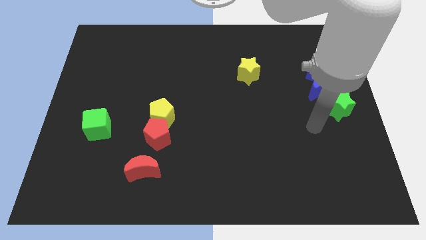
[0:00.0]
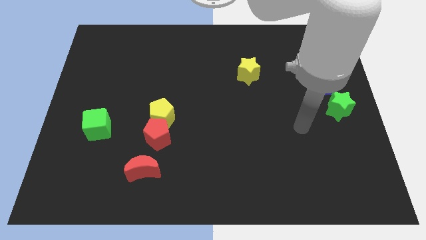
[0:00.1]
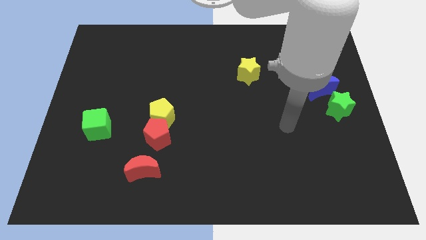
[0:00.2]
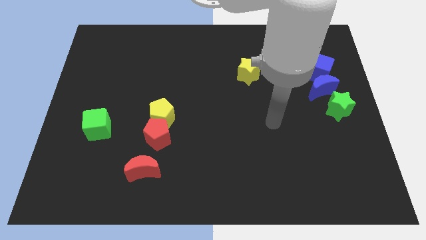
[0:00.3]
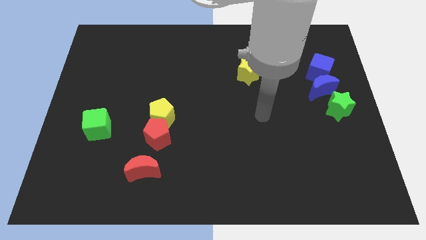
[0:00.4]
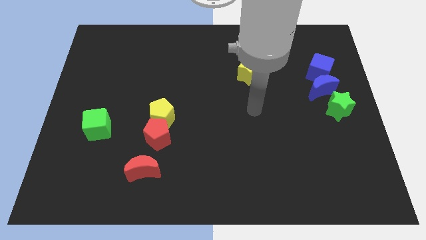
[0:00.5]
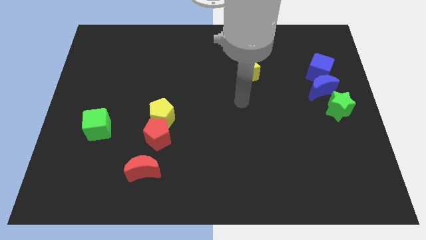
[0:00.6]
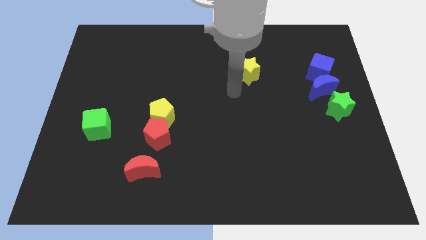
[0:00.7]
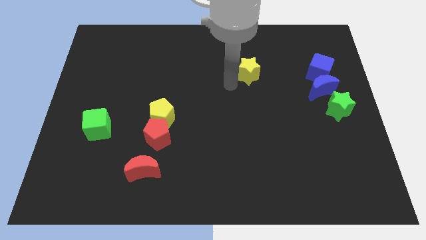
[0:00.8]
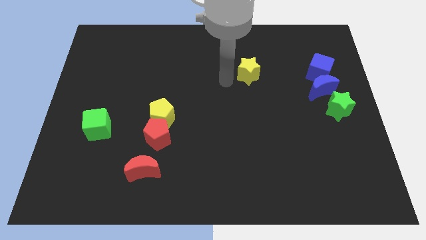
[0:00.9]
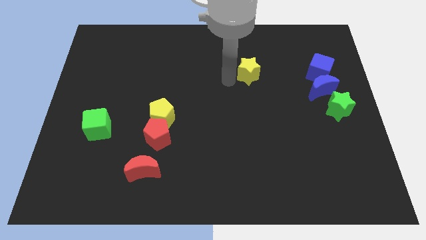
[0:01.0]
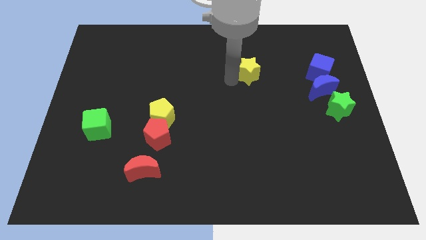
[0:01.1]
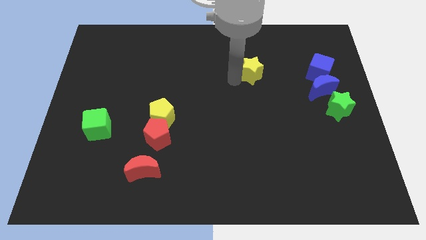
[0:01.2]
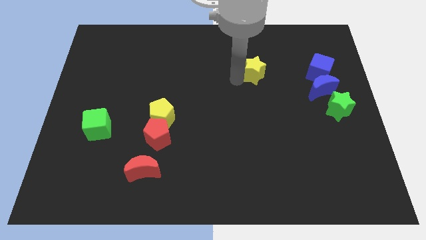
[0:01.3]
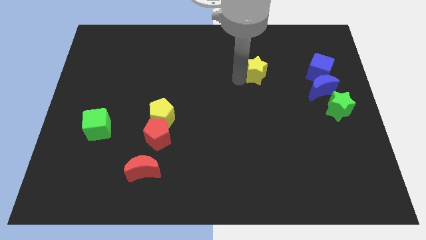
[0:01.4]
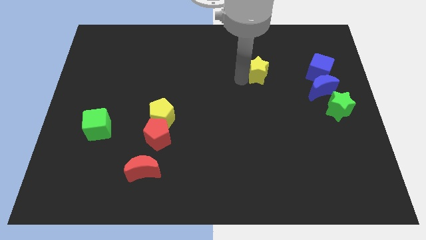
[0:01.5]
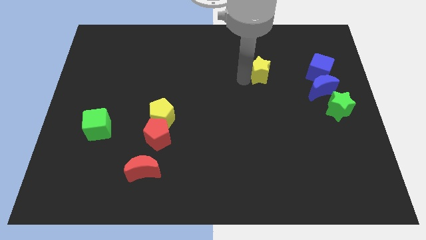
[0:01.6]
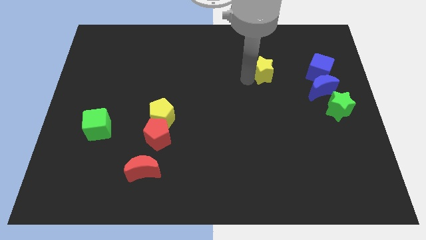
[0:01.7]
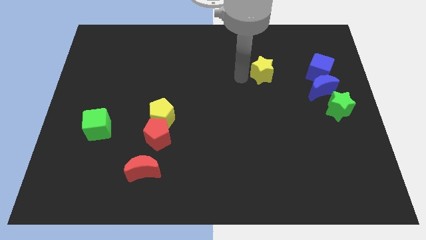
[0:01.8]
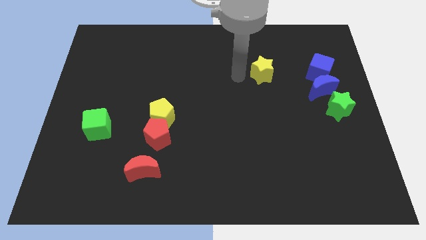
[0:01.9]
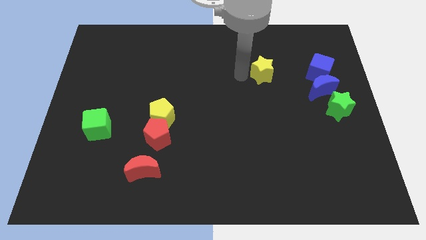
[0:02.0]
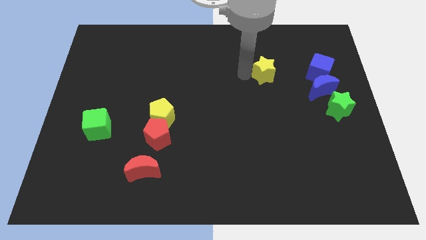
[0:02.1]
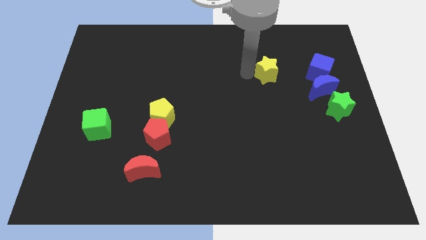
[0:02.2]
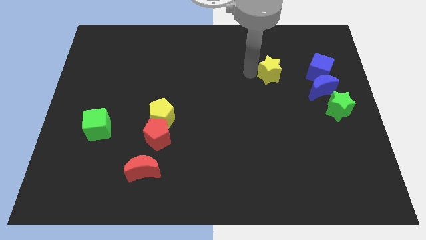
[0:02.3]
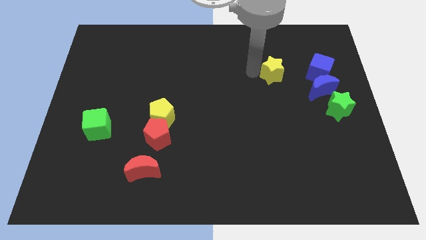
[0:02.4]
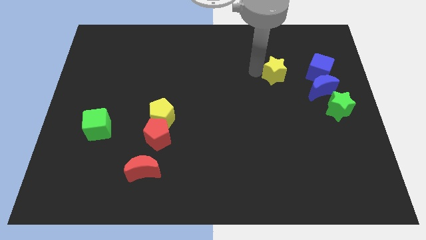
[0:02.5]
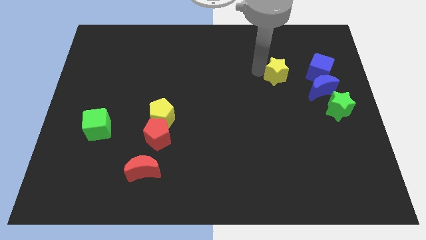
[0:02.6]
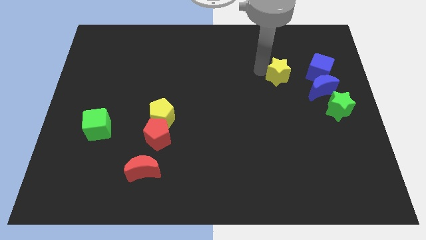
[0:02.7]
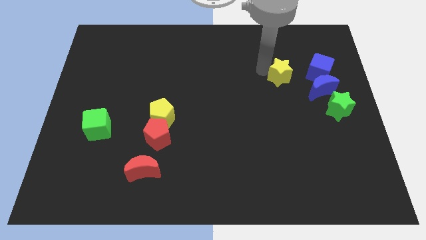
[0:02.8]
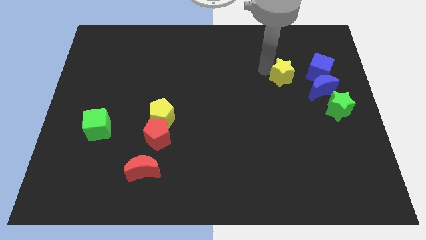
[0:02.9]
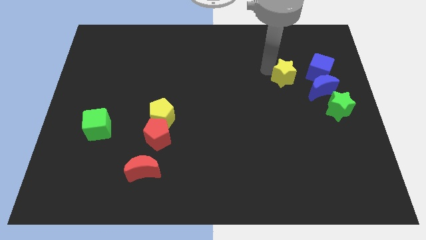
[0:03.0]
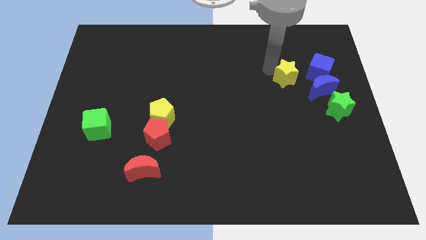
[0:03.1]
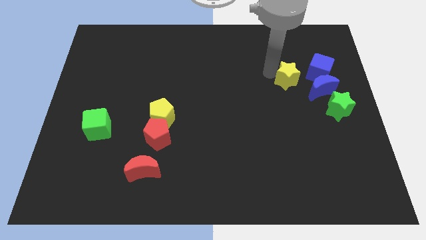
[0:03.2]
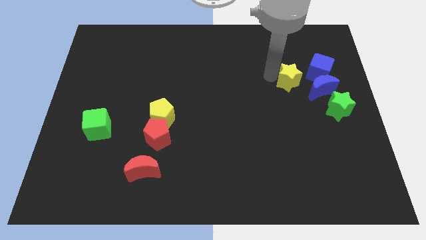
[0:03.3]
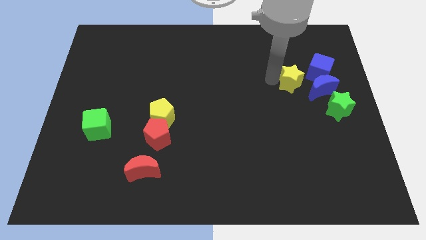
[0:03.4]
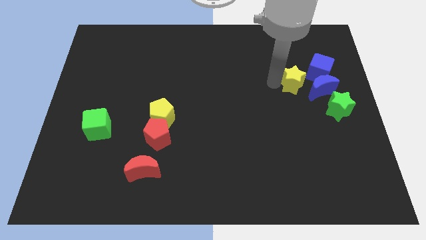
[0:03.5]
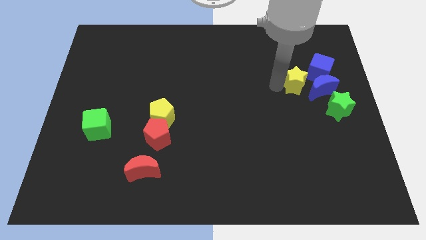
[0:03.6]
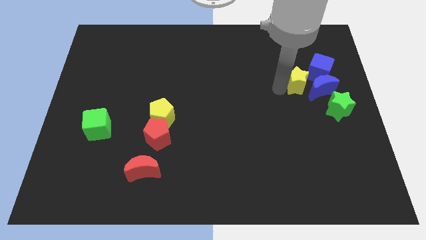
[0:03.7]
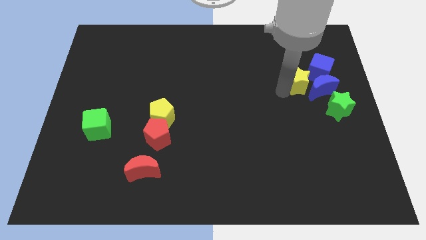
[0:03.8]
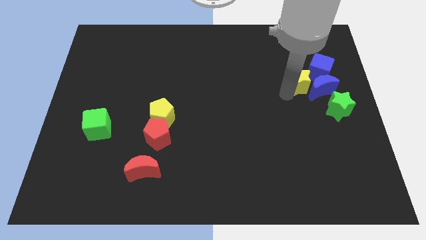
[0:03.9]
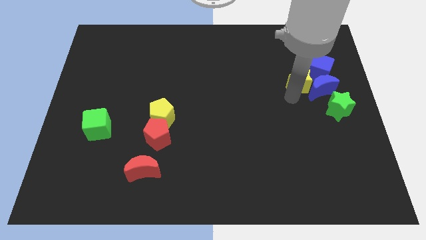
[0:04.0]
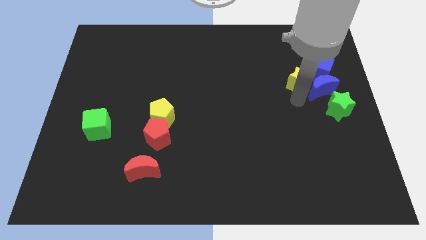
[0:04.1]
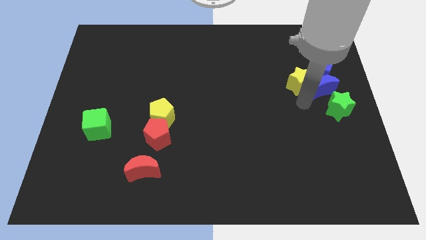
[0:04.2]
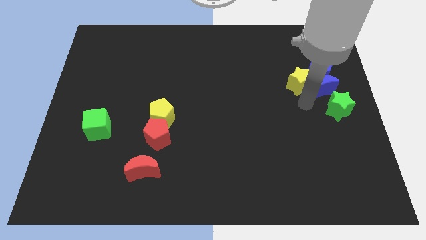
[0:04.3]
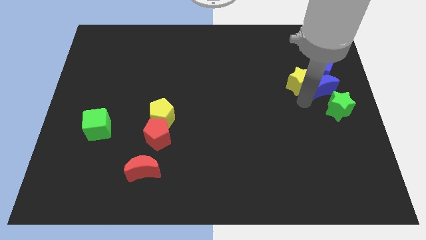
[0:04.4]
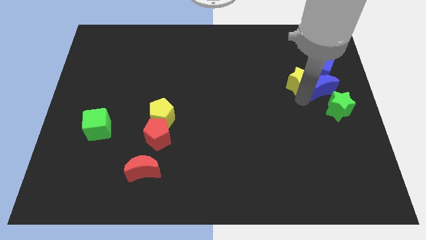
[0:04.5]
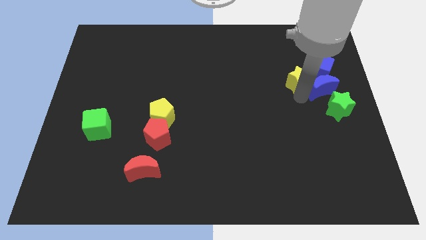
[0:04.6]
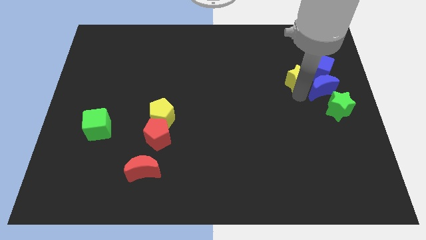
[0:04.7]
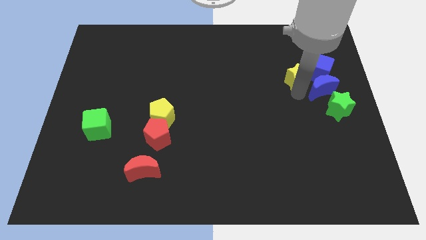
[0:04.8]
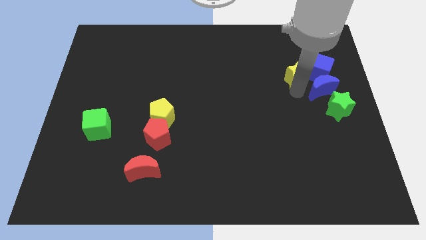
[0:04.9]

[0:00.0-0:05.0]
put the yellow star next to the blue cube

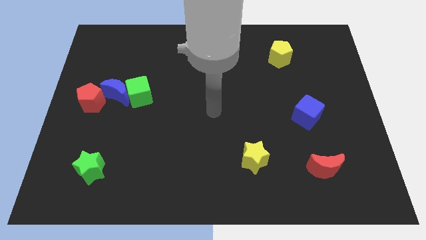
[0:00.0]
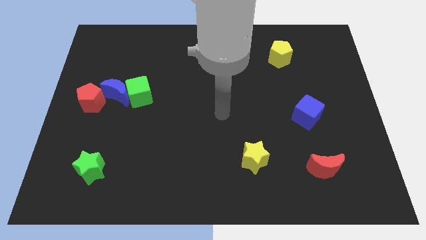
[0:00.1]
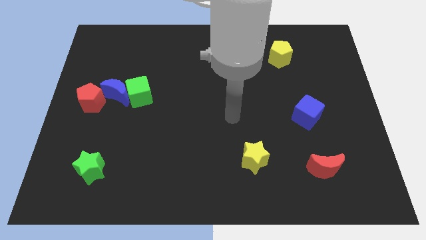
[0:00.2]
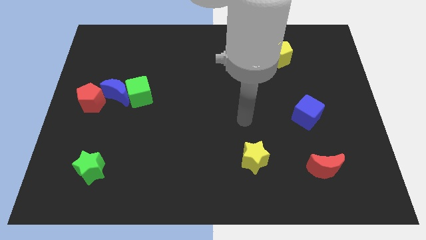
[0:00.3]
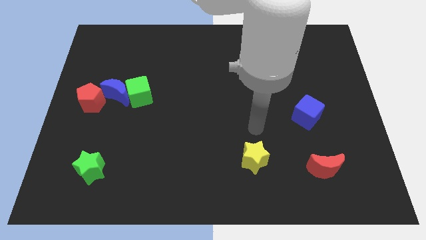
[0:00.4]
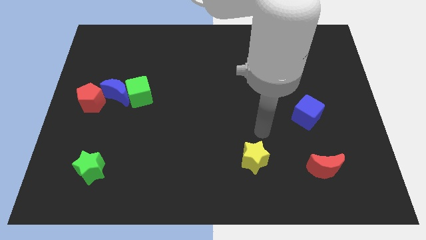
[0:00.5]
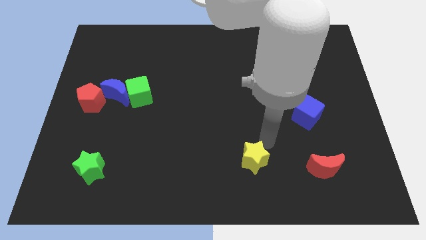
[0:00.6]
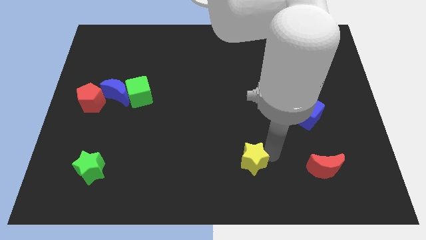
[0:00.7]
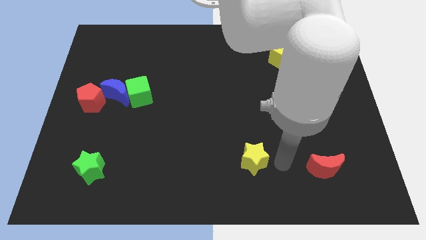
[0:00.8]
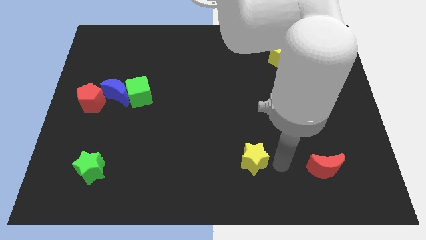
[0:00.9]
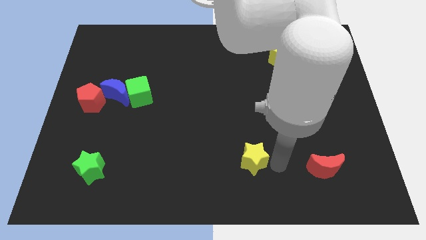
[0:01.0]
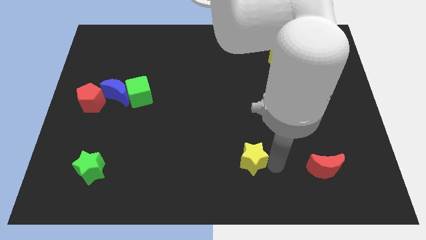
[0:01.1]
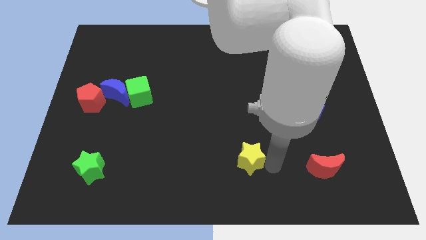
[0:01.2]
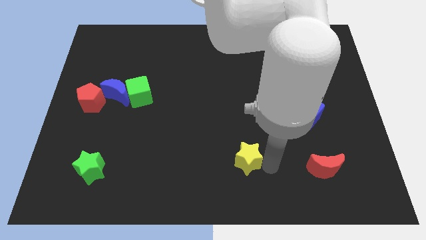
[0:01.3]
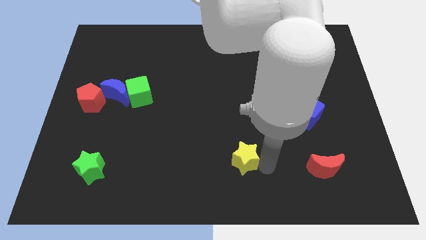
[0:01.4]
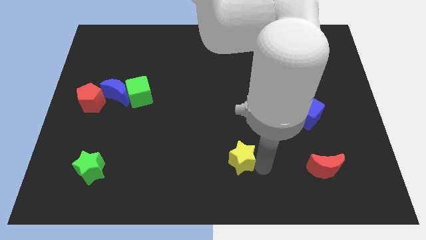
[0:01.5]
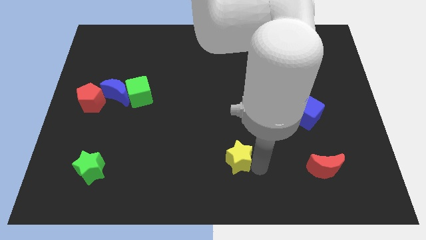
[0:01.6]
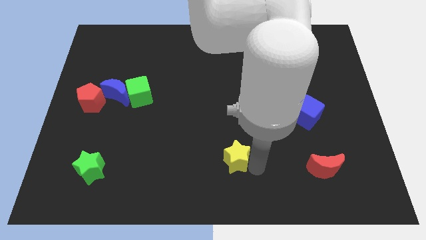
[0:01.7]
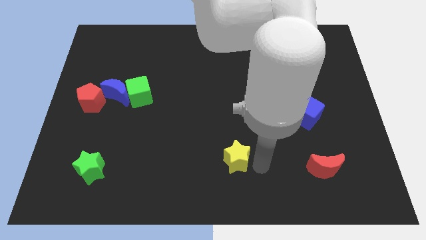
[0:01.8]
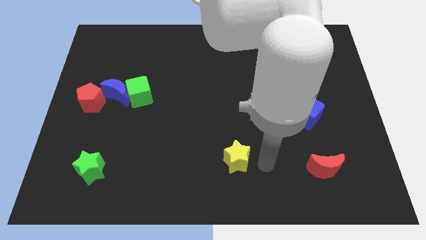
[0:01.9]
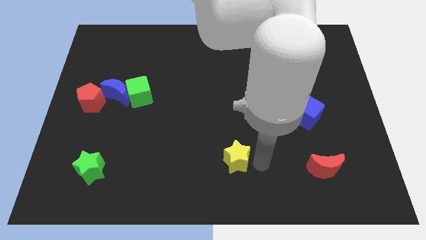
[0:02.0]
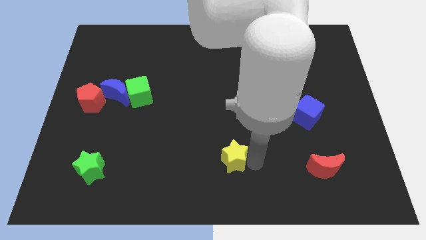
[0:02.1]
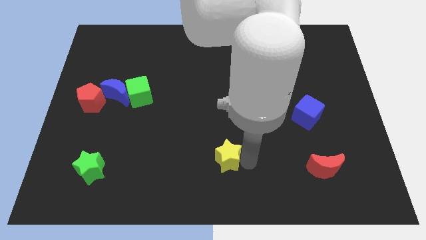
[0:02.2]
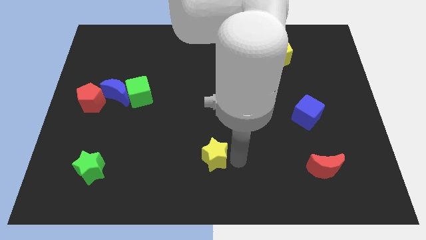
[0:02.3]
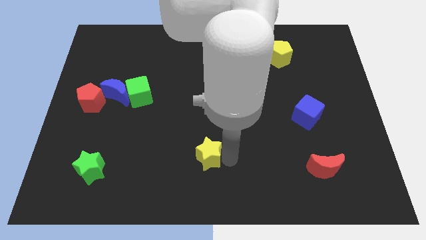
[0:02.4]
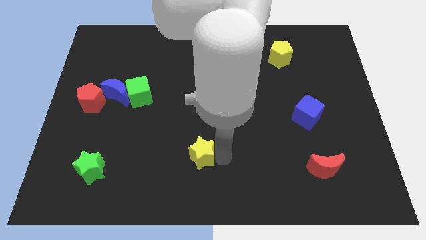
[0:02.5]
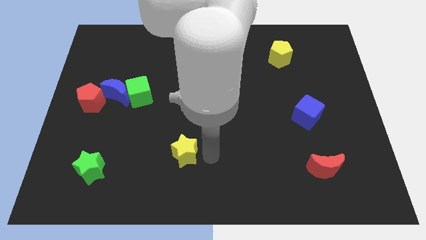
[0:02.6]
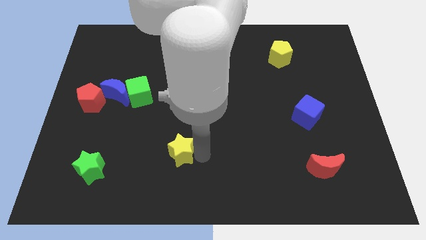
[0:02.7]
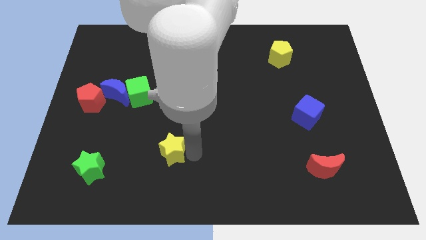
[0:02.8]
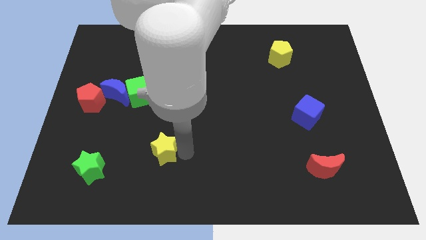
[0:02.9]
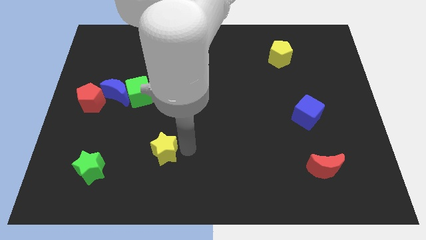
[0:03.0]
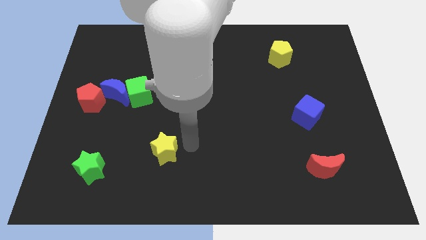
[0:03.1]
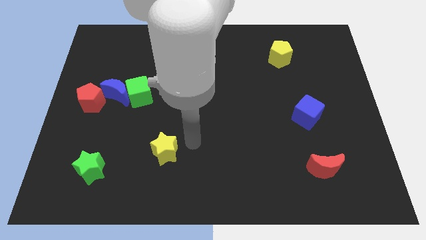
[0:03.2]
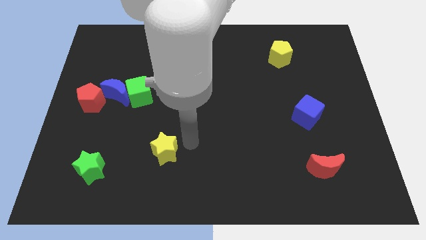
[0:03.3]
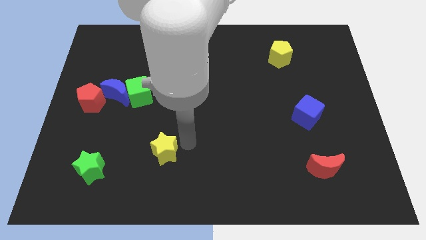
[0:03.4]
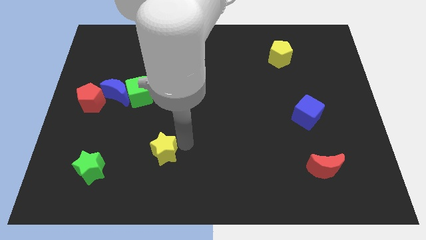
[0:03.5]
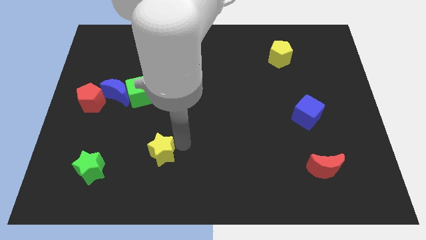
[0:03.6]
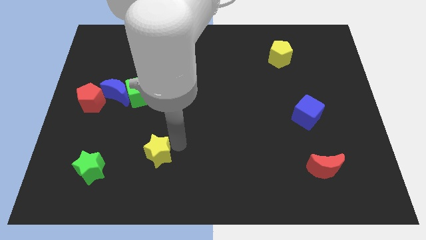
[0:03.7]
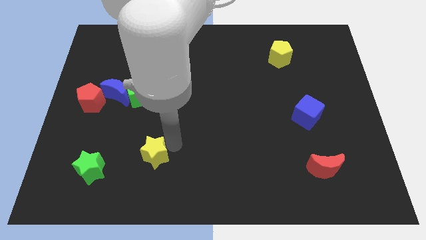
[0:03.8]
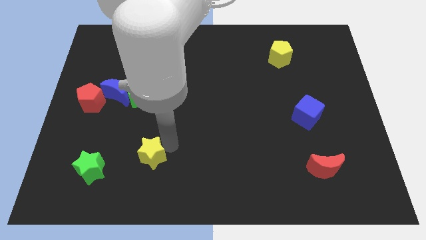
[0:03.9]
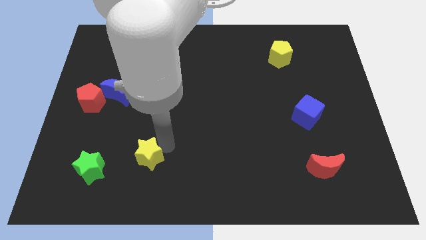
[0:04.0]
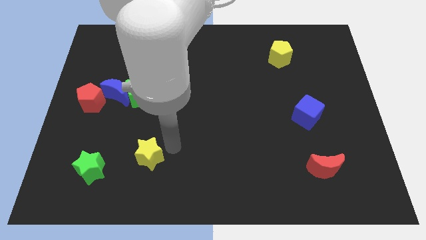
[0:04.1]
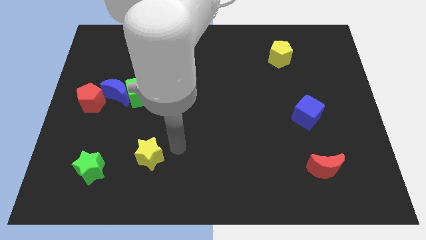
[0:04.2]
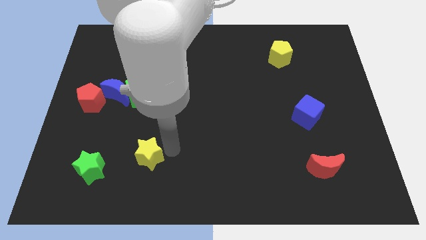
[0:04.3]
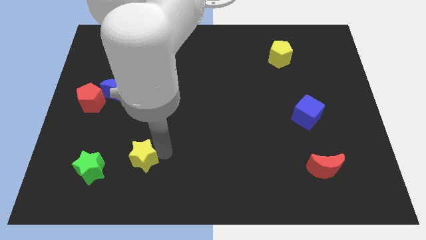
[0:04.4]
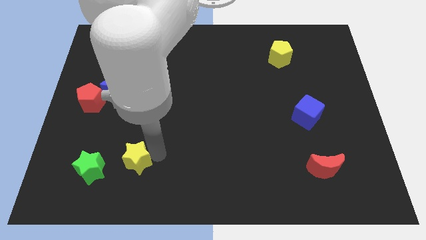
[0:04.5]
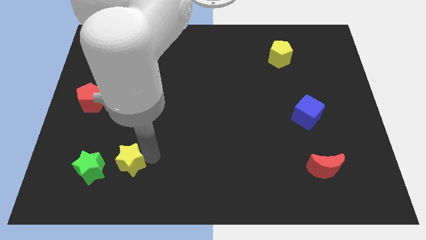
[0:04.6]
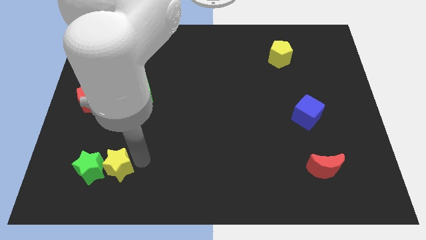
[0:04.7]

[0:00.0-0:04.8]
slide the yellow star to the green star
